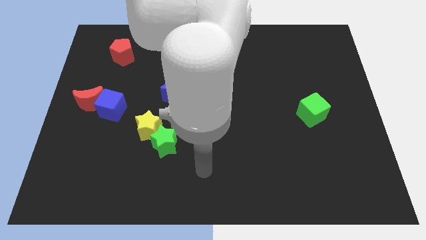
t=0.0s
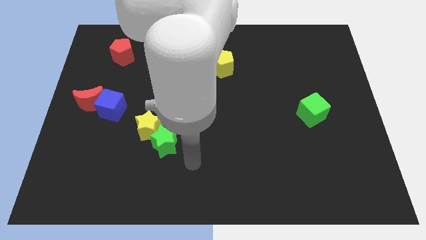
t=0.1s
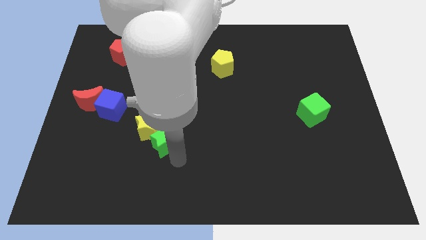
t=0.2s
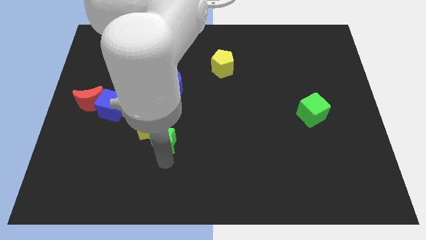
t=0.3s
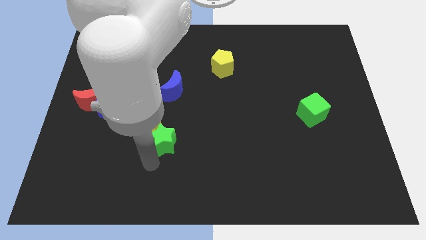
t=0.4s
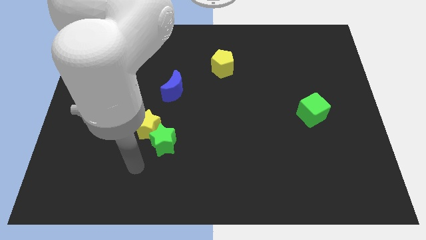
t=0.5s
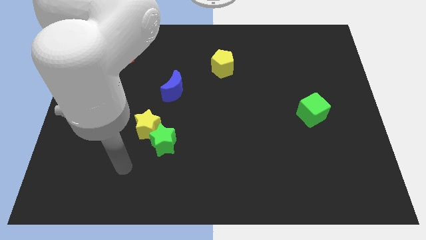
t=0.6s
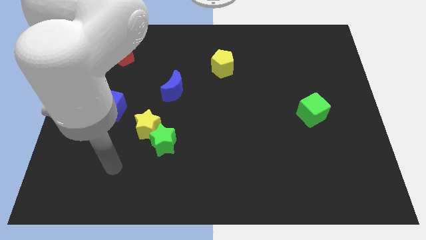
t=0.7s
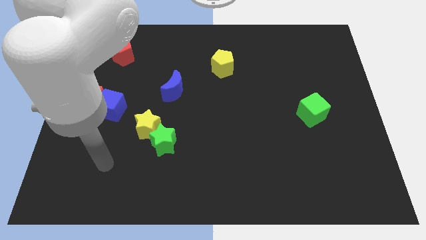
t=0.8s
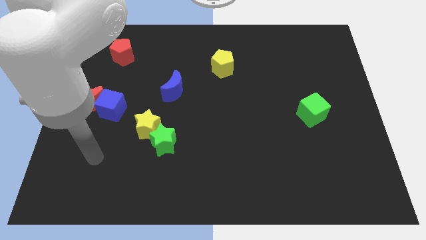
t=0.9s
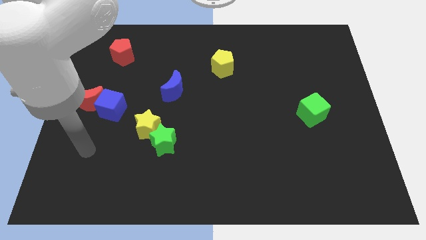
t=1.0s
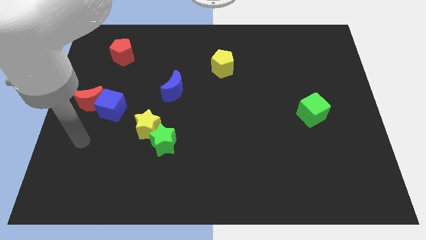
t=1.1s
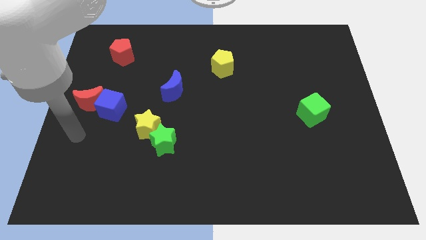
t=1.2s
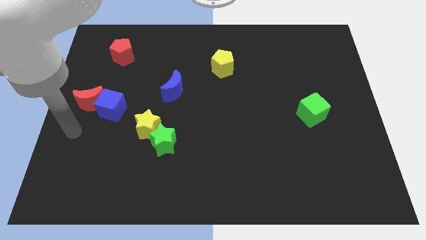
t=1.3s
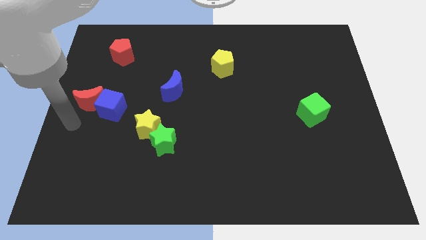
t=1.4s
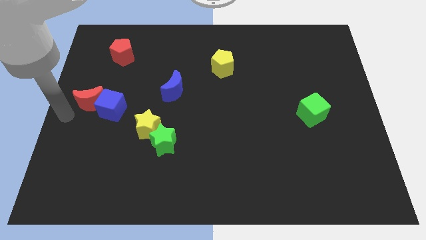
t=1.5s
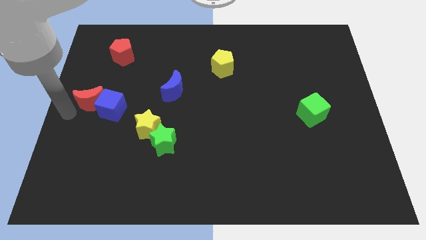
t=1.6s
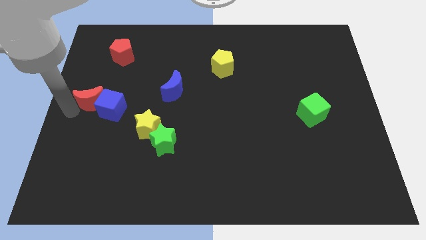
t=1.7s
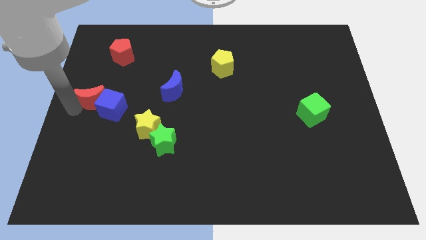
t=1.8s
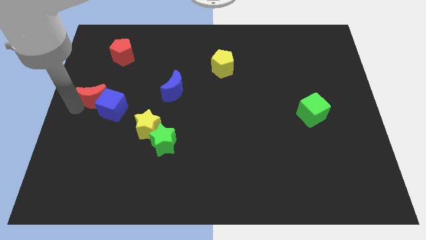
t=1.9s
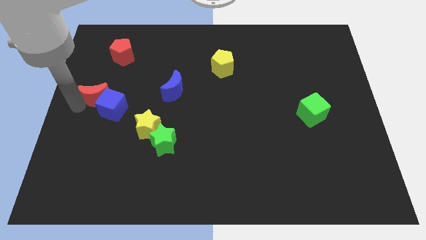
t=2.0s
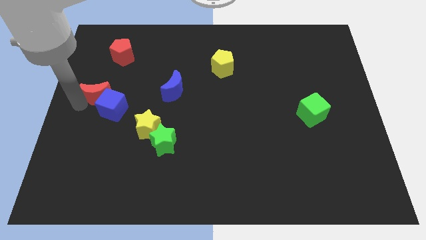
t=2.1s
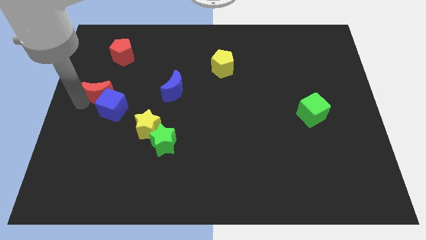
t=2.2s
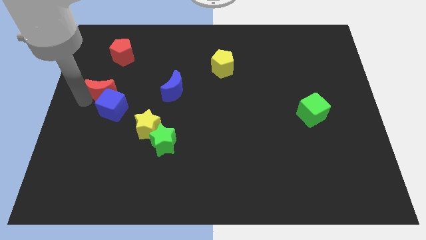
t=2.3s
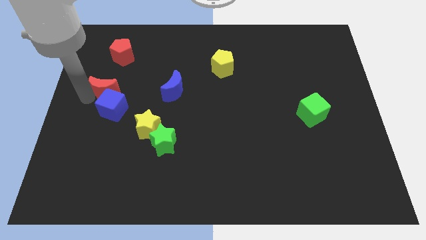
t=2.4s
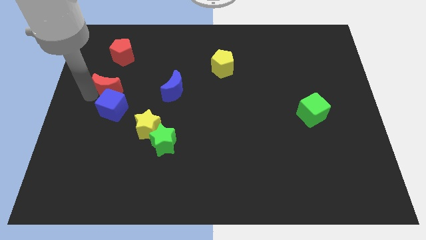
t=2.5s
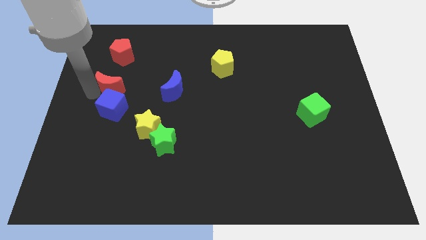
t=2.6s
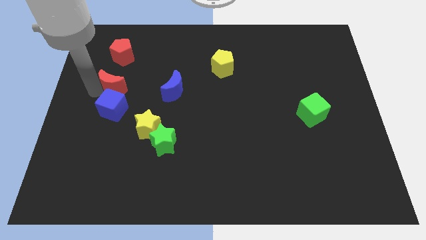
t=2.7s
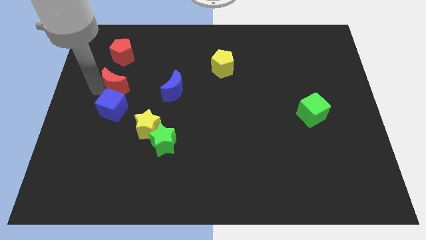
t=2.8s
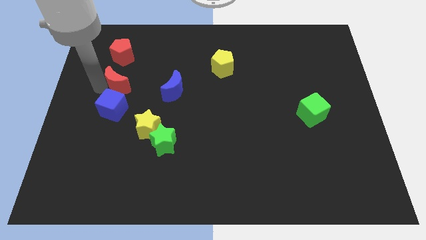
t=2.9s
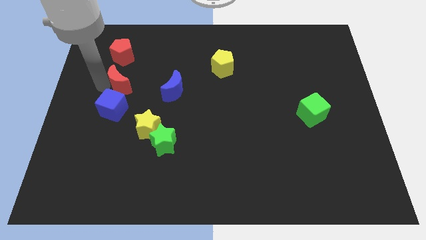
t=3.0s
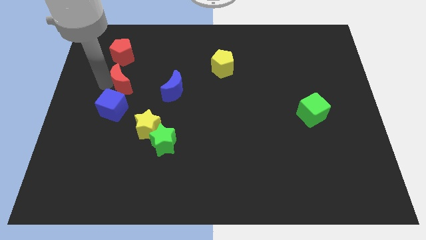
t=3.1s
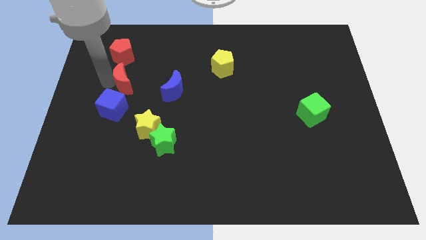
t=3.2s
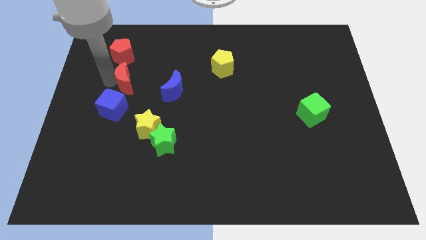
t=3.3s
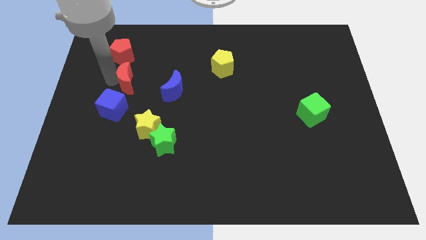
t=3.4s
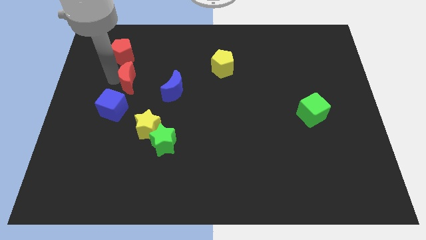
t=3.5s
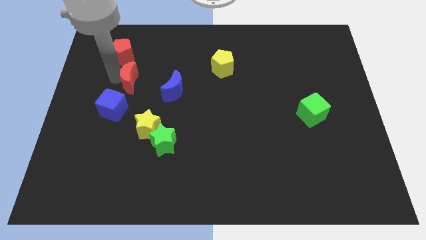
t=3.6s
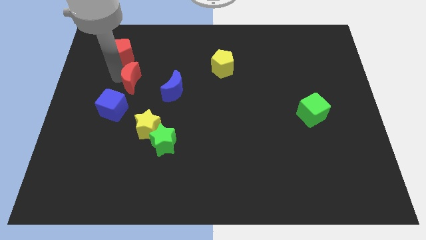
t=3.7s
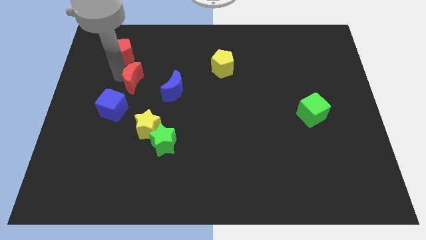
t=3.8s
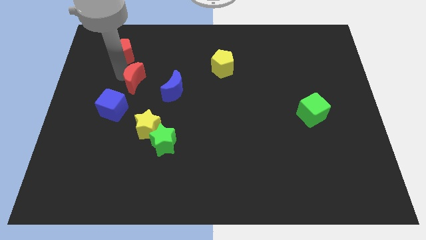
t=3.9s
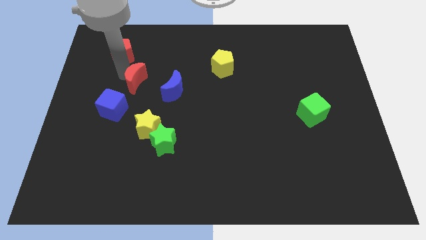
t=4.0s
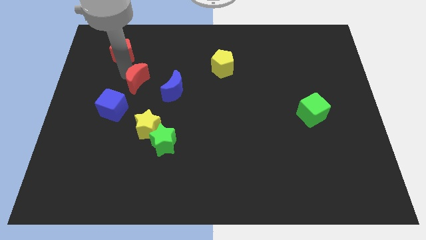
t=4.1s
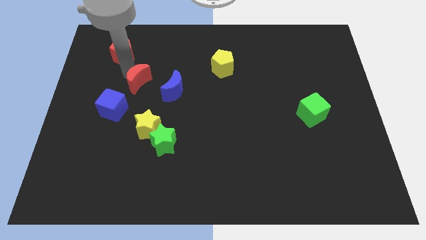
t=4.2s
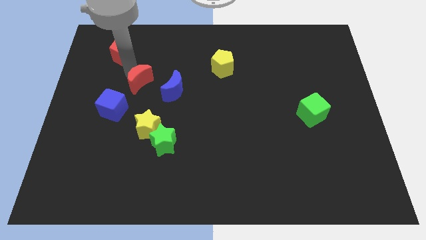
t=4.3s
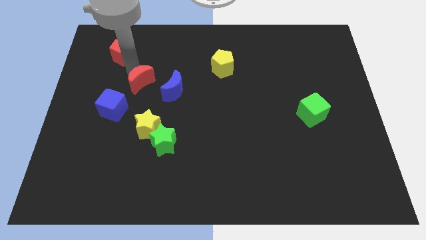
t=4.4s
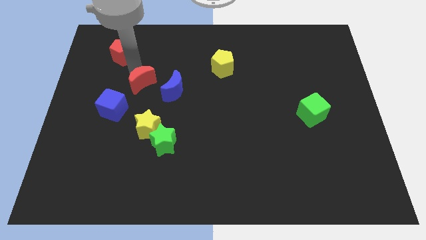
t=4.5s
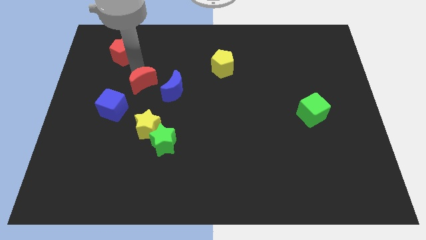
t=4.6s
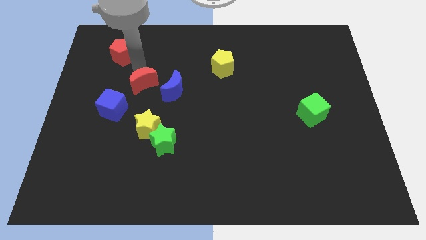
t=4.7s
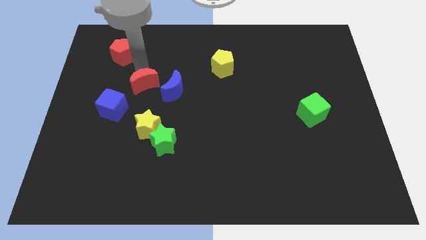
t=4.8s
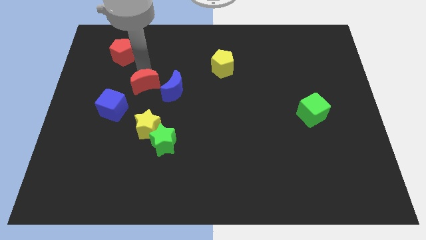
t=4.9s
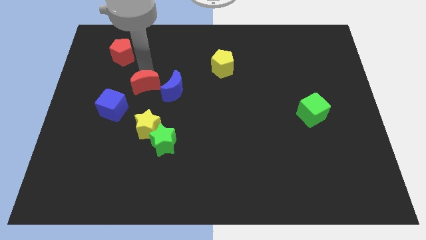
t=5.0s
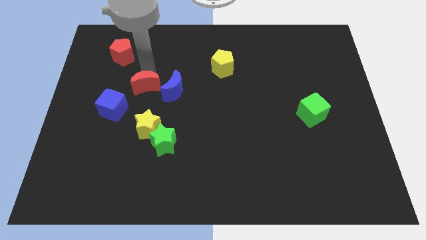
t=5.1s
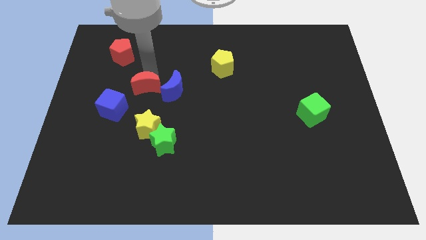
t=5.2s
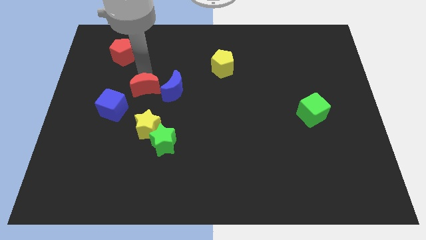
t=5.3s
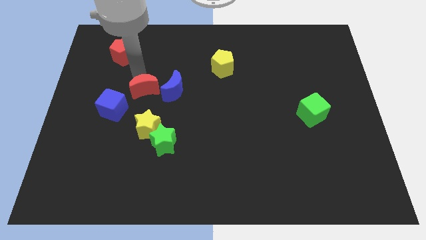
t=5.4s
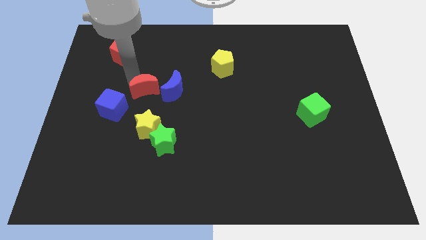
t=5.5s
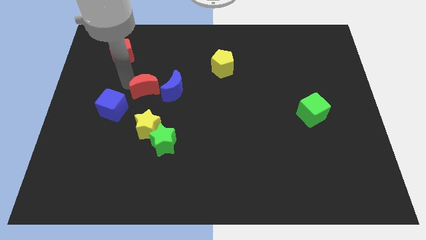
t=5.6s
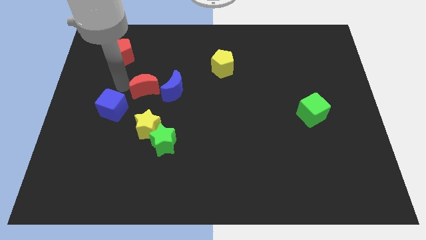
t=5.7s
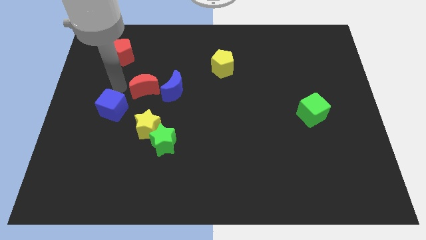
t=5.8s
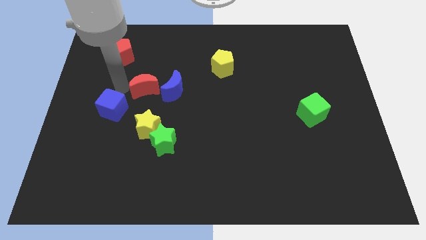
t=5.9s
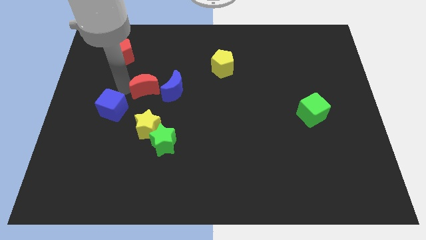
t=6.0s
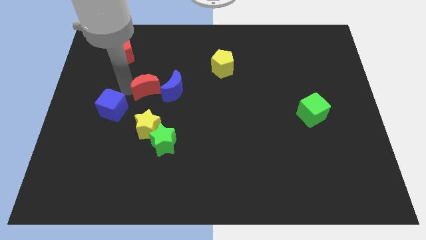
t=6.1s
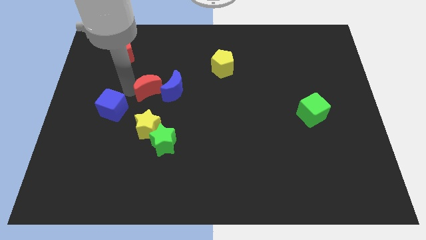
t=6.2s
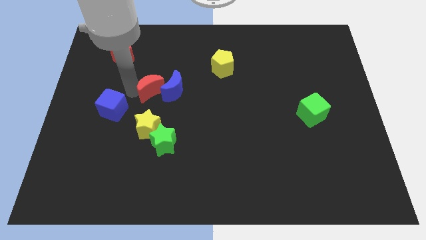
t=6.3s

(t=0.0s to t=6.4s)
slide the red moon next to the blue moon

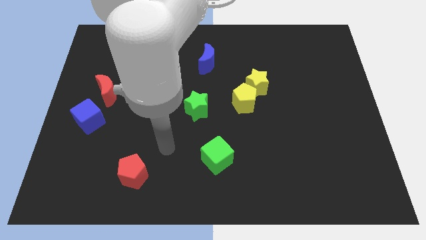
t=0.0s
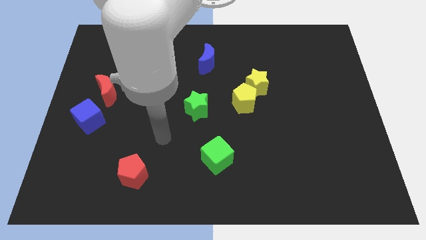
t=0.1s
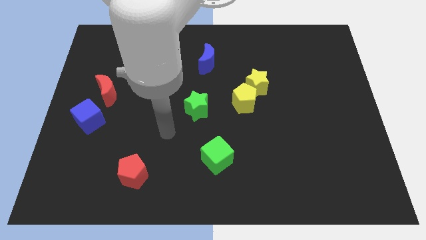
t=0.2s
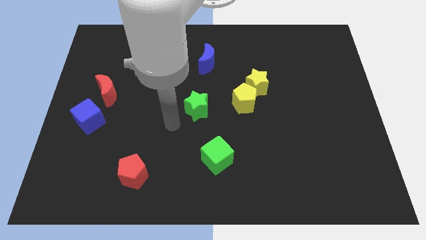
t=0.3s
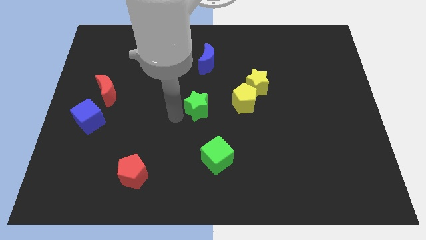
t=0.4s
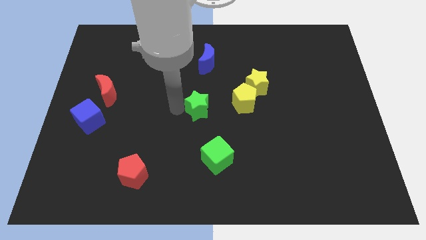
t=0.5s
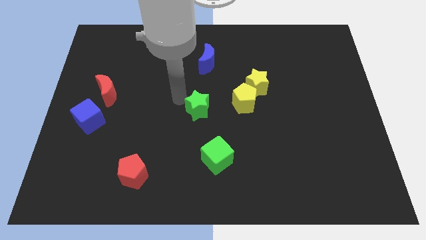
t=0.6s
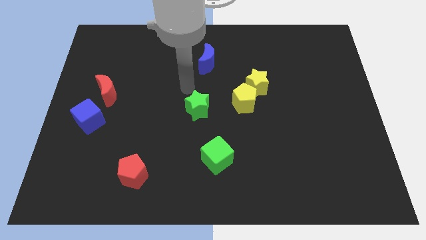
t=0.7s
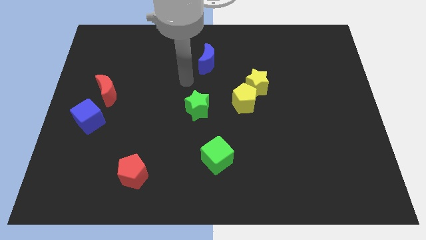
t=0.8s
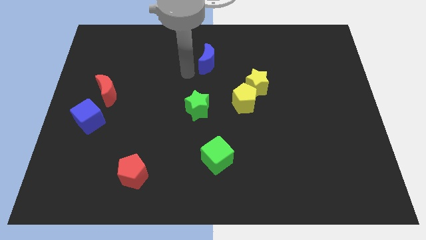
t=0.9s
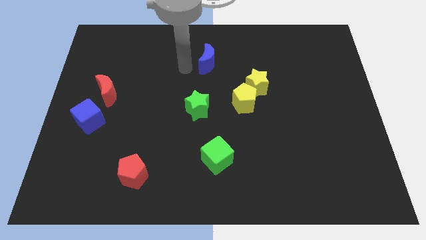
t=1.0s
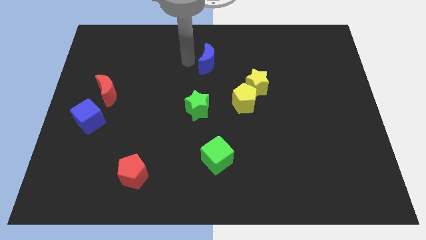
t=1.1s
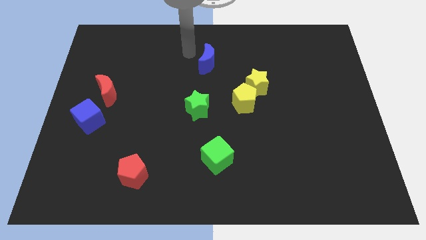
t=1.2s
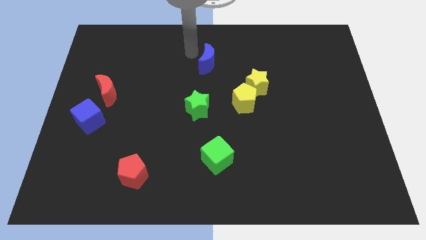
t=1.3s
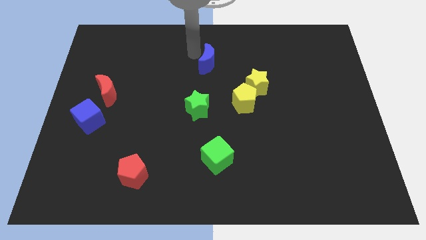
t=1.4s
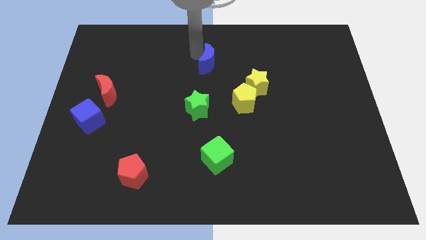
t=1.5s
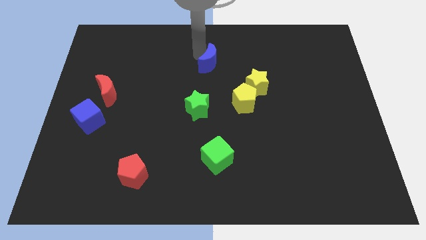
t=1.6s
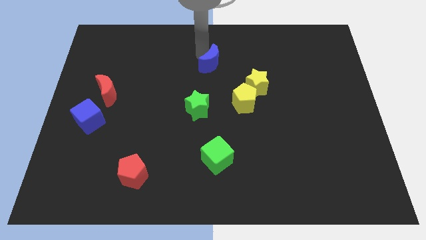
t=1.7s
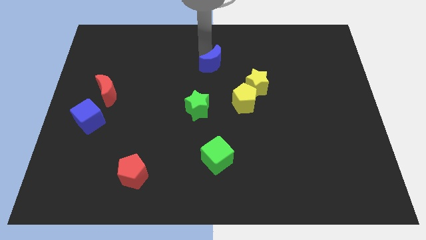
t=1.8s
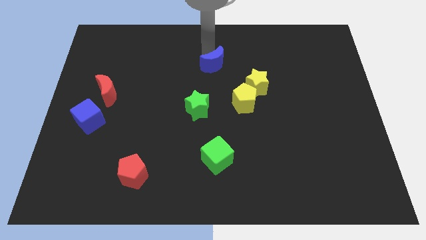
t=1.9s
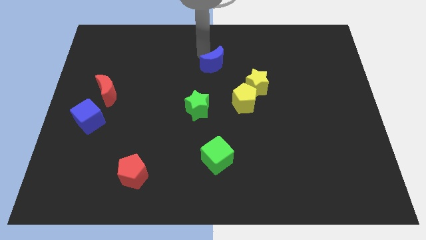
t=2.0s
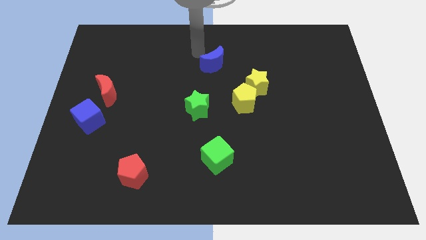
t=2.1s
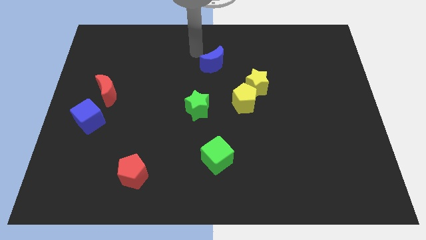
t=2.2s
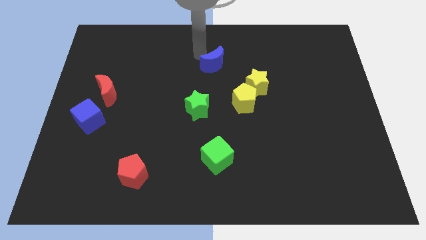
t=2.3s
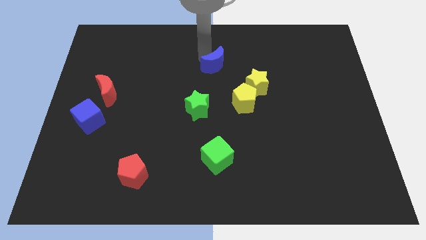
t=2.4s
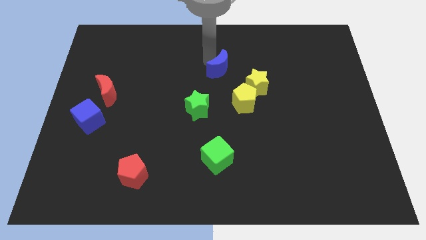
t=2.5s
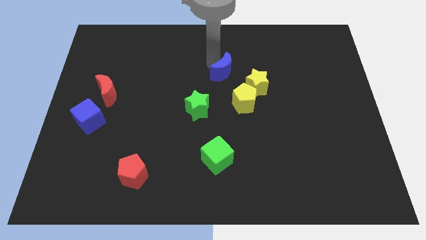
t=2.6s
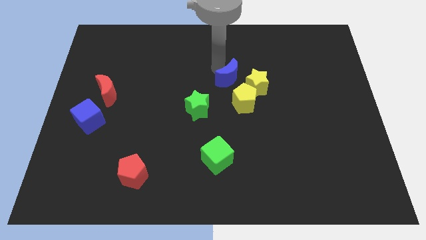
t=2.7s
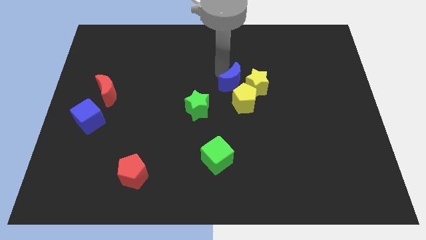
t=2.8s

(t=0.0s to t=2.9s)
move the blue moon to the yellow star
